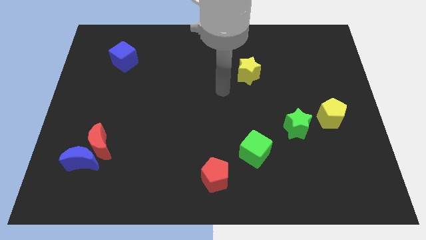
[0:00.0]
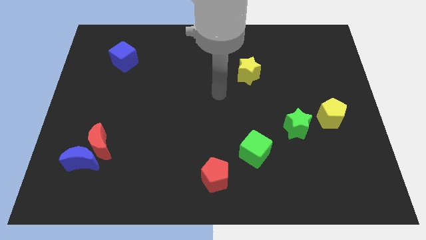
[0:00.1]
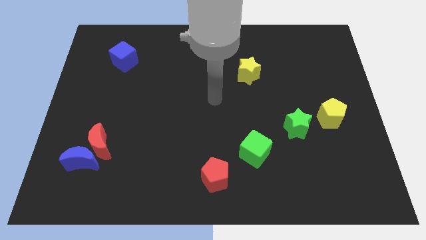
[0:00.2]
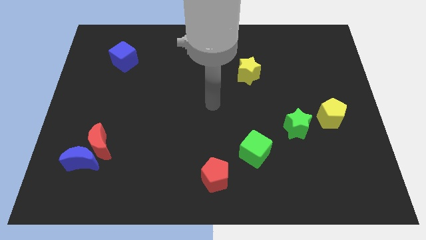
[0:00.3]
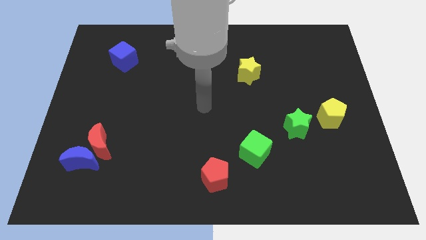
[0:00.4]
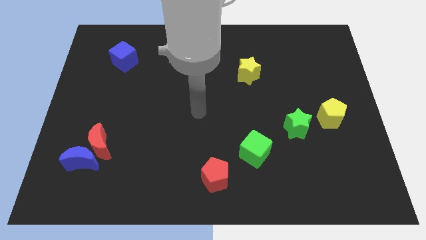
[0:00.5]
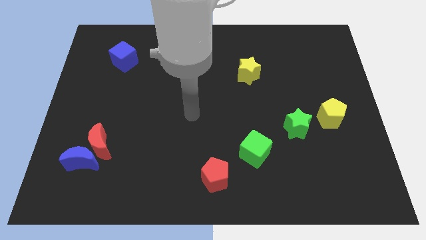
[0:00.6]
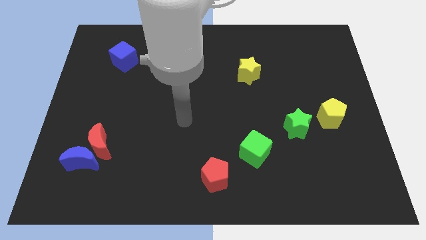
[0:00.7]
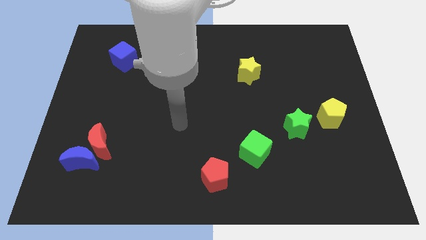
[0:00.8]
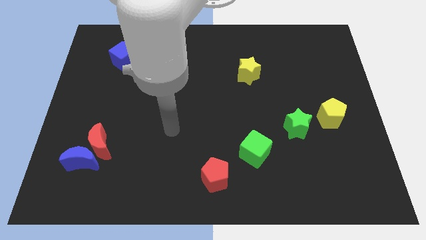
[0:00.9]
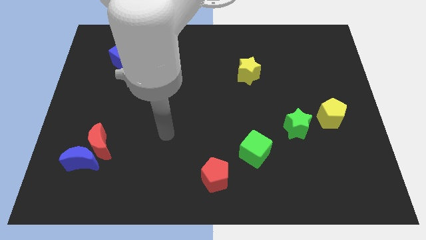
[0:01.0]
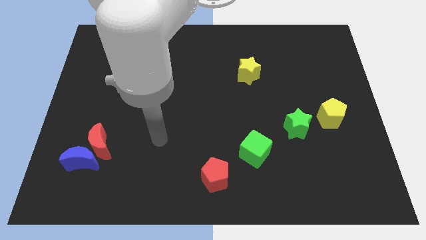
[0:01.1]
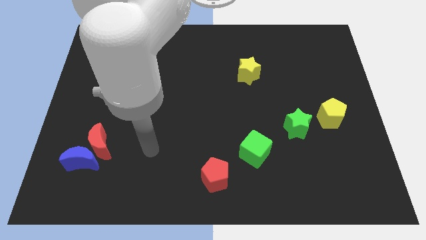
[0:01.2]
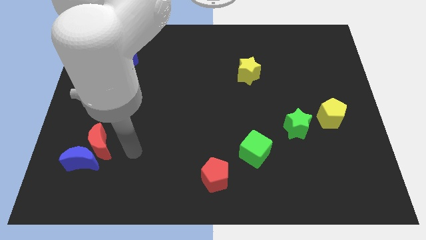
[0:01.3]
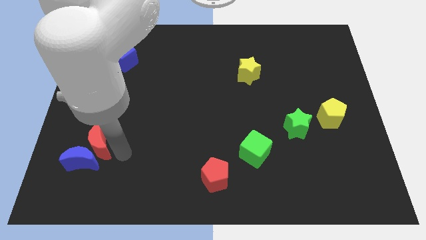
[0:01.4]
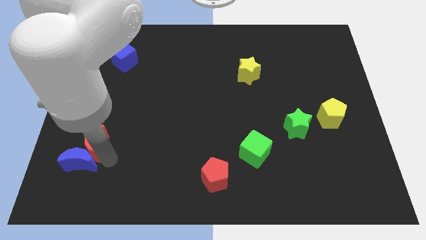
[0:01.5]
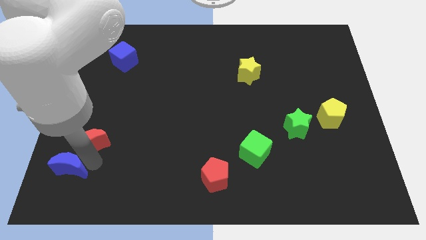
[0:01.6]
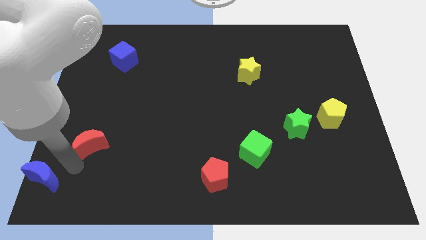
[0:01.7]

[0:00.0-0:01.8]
move the red moon away from the blue moon

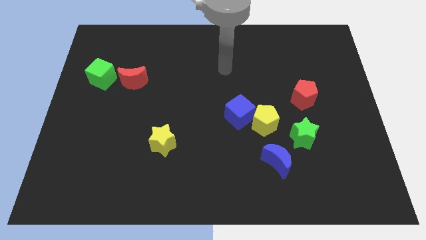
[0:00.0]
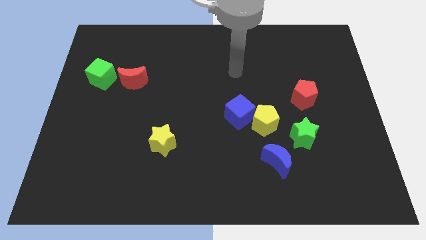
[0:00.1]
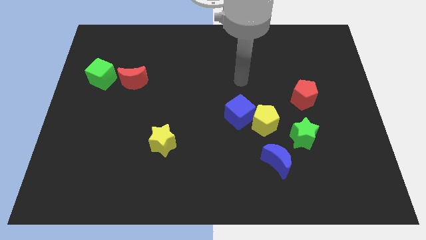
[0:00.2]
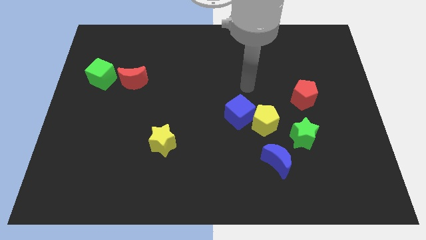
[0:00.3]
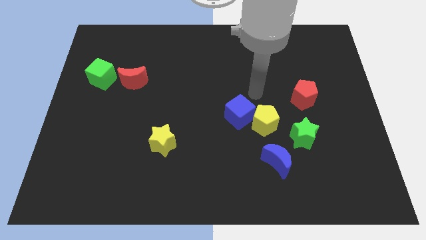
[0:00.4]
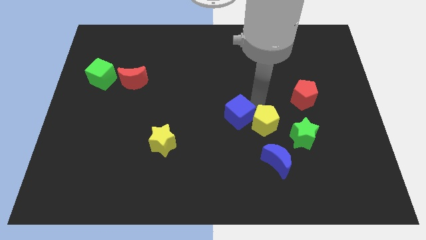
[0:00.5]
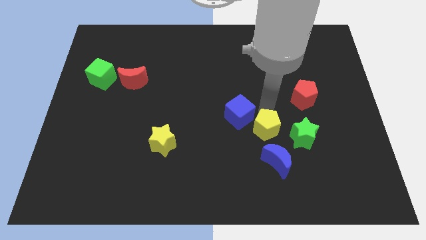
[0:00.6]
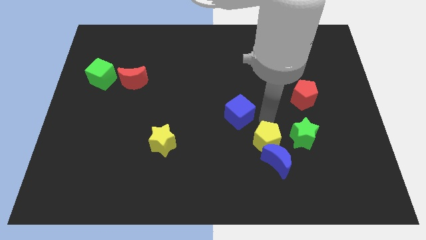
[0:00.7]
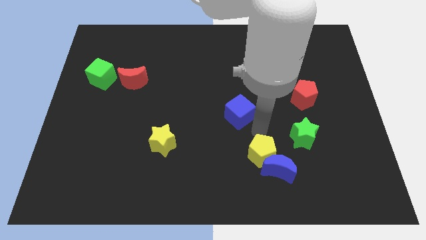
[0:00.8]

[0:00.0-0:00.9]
pull the blue cube apart from the yellow pentagon

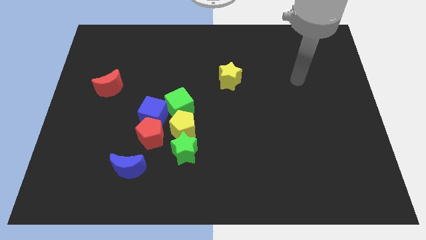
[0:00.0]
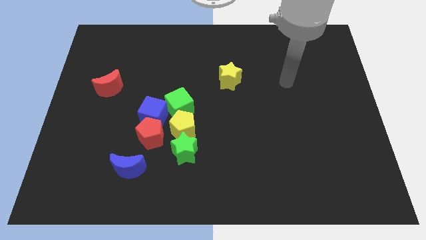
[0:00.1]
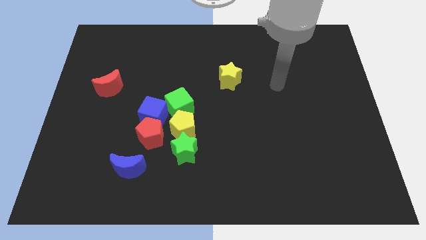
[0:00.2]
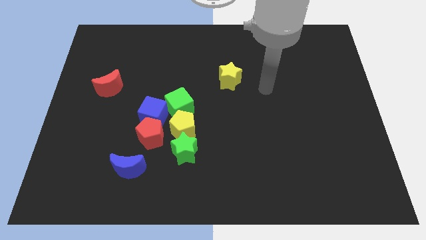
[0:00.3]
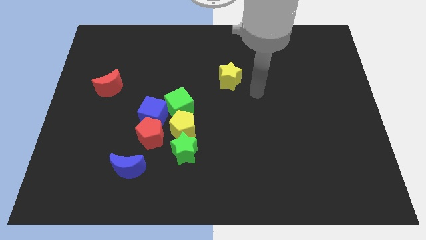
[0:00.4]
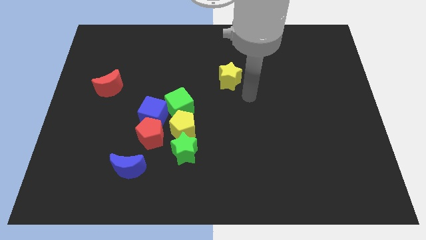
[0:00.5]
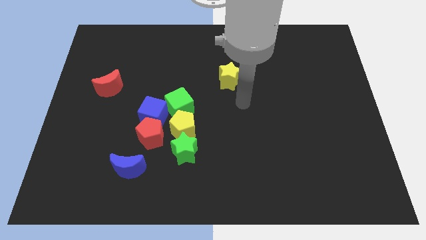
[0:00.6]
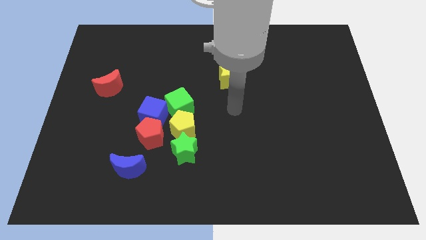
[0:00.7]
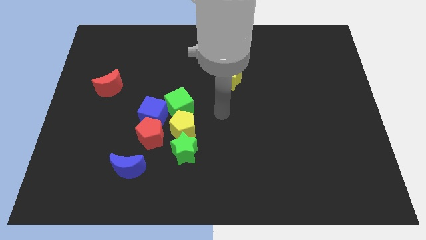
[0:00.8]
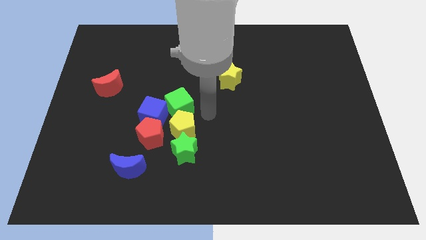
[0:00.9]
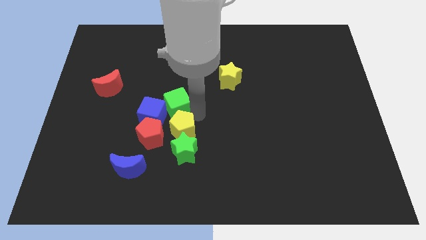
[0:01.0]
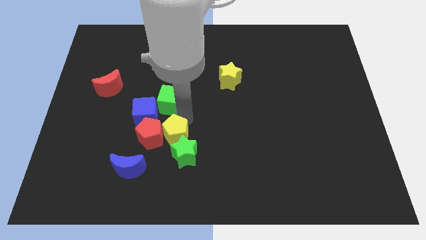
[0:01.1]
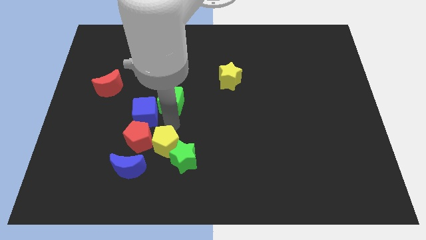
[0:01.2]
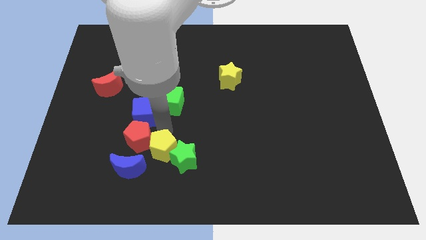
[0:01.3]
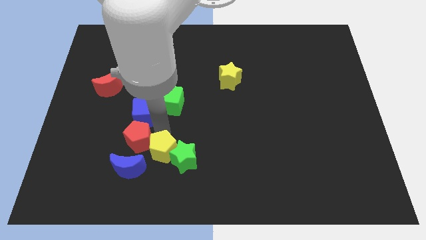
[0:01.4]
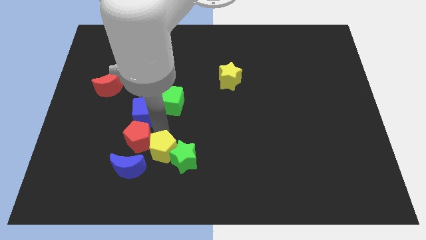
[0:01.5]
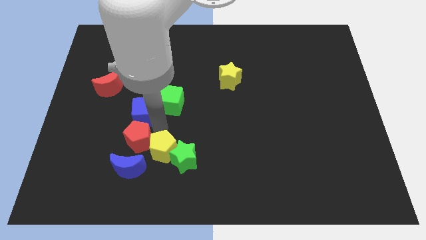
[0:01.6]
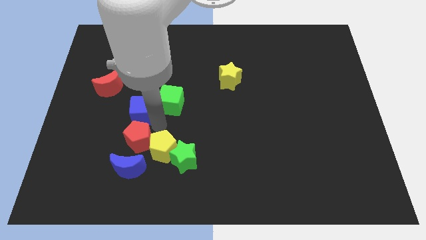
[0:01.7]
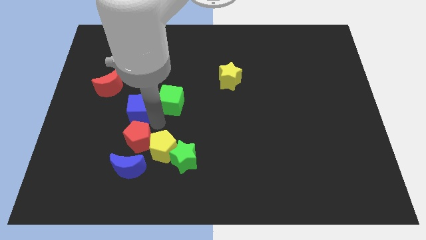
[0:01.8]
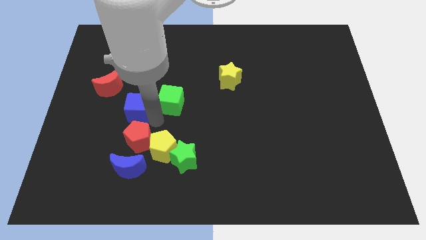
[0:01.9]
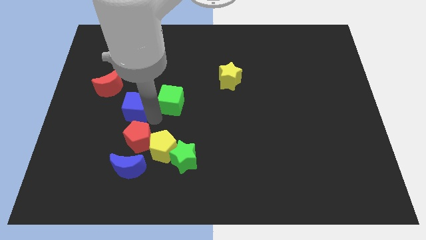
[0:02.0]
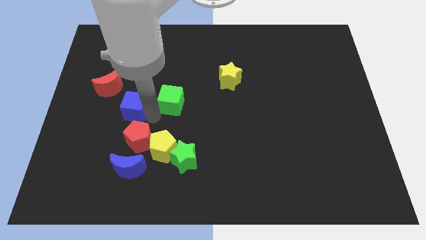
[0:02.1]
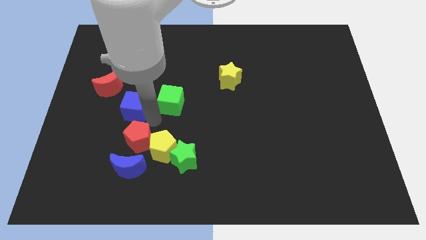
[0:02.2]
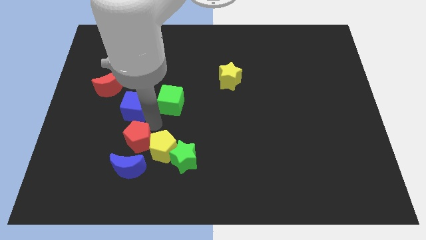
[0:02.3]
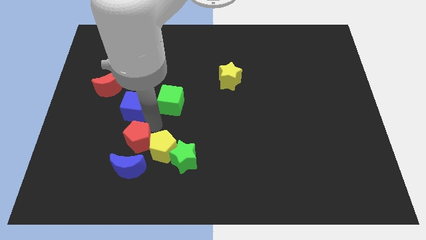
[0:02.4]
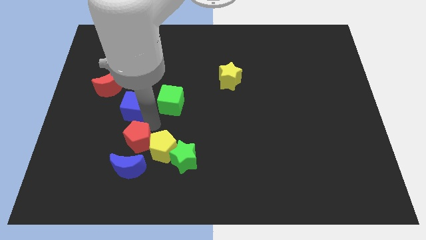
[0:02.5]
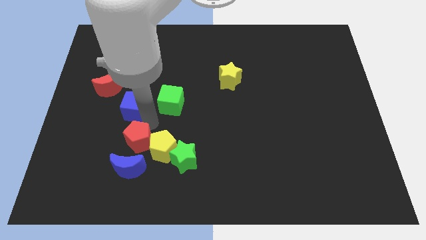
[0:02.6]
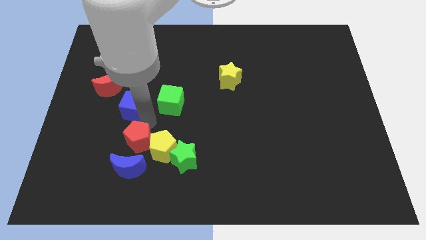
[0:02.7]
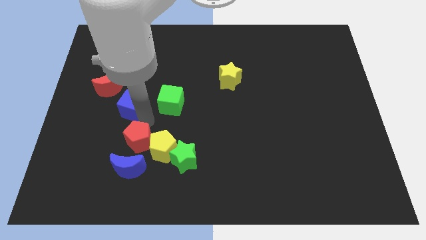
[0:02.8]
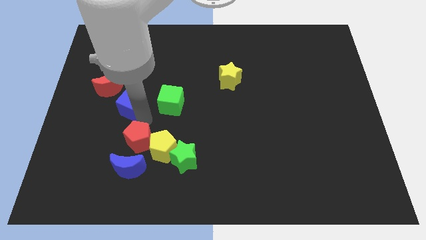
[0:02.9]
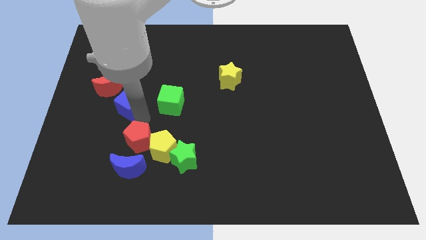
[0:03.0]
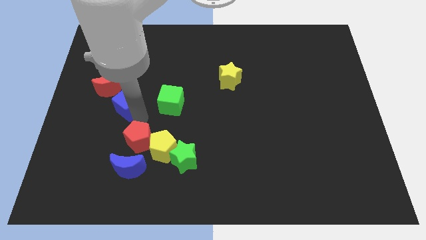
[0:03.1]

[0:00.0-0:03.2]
pull the blue cube apart from the red pentagon, green cube, and yellow pentagon

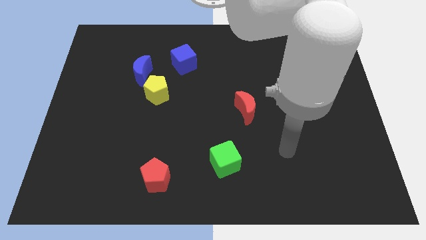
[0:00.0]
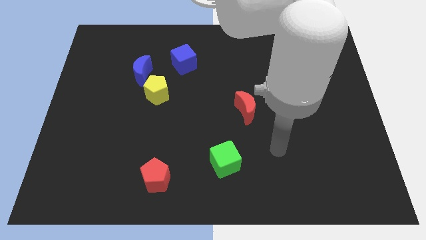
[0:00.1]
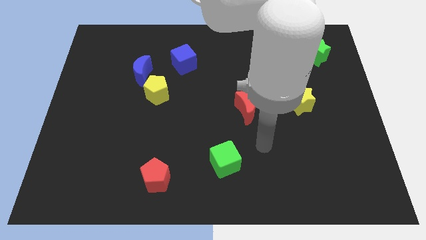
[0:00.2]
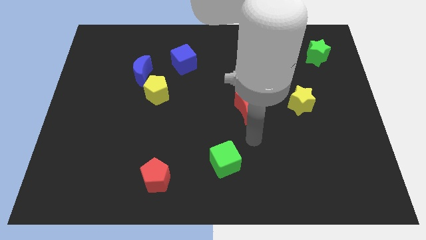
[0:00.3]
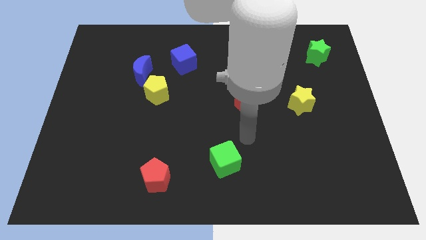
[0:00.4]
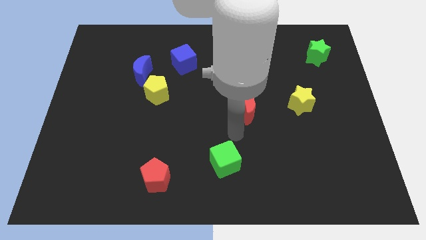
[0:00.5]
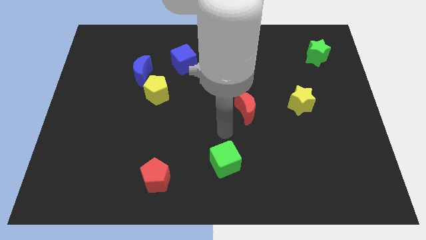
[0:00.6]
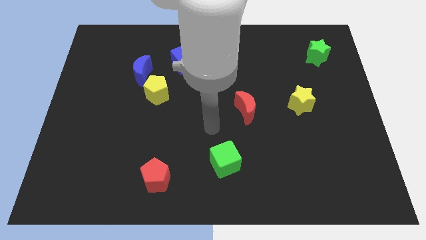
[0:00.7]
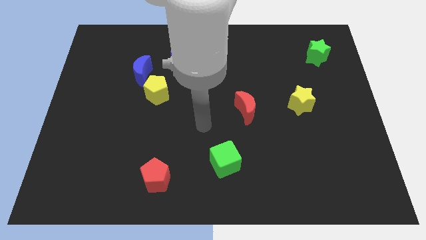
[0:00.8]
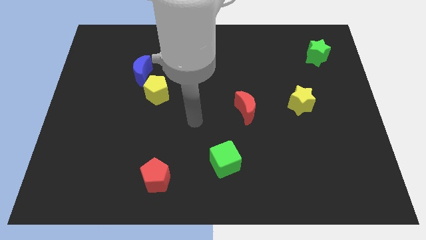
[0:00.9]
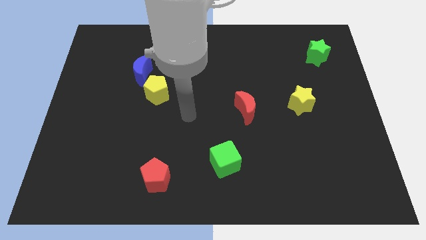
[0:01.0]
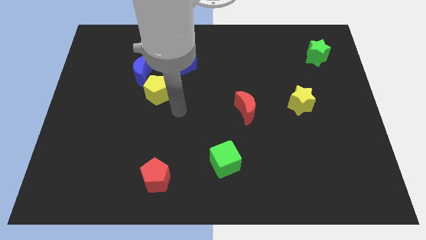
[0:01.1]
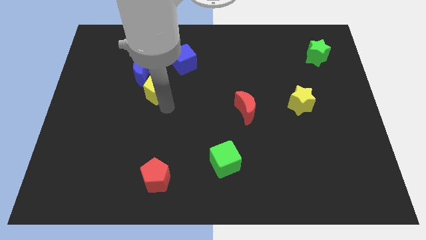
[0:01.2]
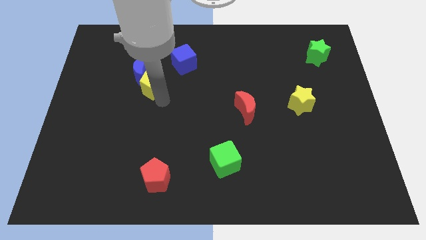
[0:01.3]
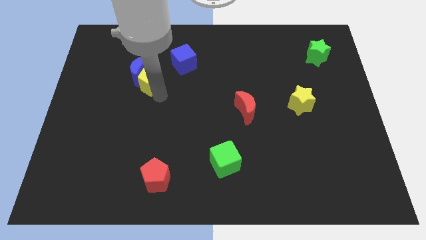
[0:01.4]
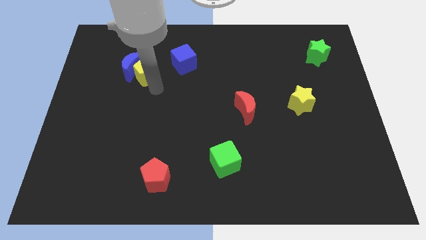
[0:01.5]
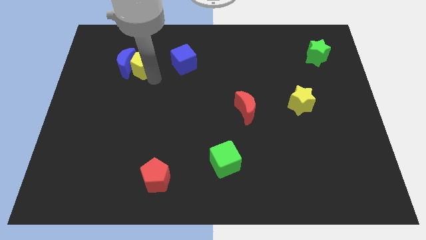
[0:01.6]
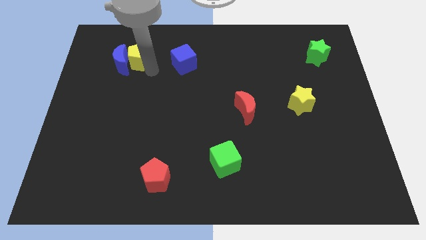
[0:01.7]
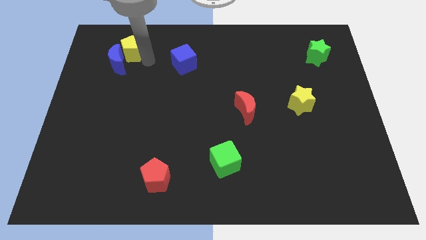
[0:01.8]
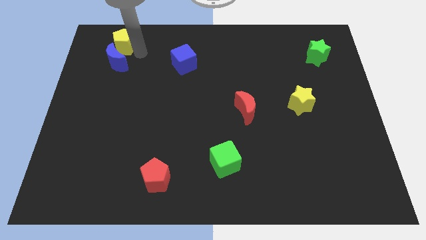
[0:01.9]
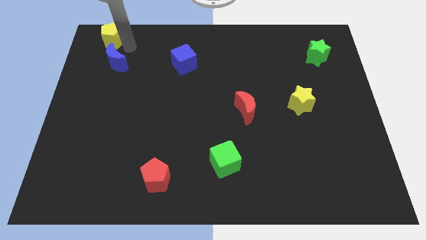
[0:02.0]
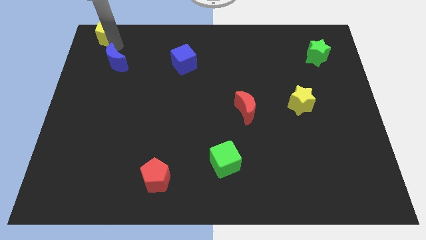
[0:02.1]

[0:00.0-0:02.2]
pull the blue moon apart from the yellow pentagon

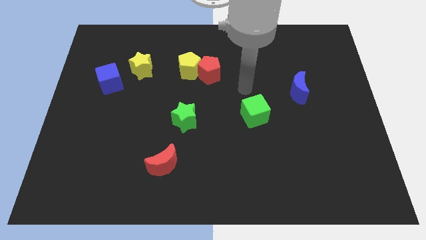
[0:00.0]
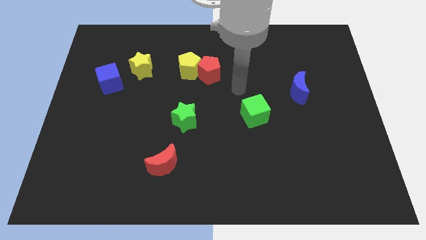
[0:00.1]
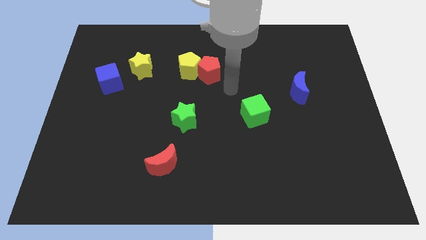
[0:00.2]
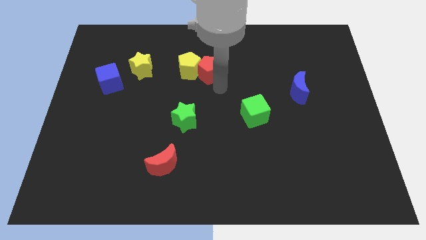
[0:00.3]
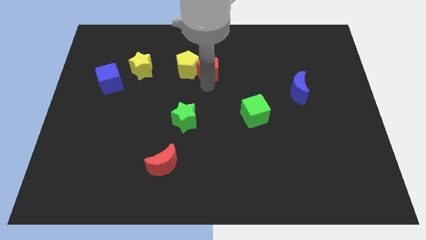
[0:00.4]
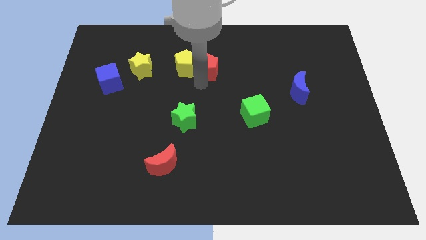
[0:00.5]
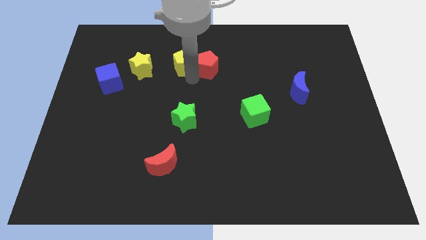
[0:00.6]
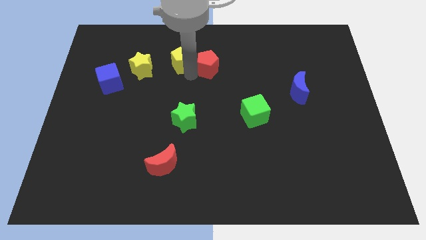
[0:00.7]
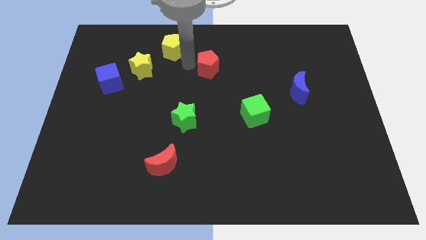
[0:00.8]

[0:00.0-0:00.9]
move the red pentagon away from the yellow pentagon

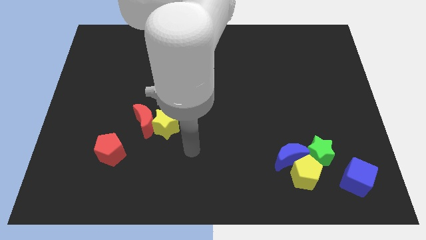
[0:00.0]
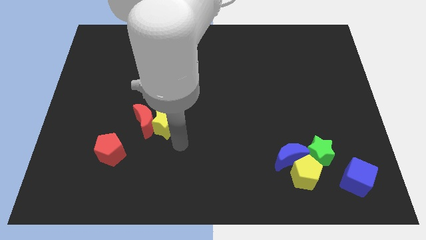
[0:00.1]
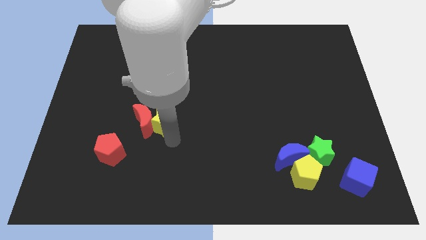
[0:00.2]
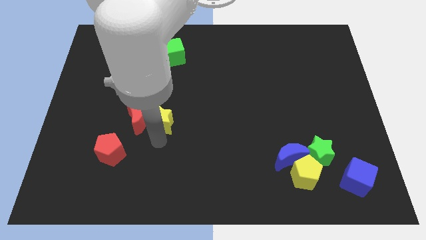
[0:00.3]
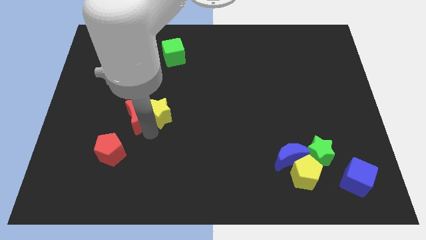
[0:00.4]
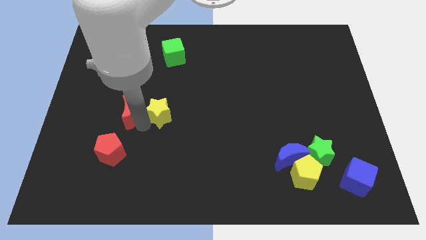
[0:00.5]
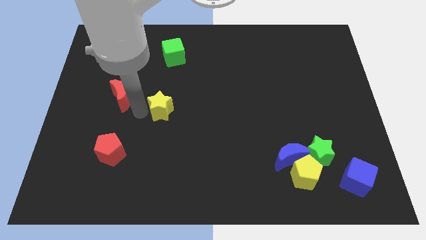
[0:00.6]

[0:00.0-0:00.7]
pull the yellow star apart from the red moon
